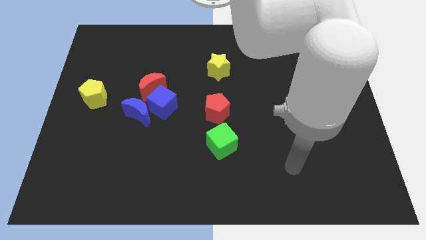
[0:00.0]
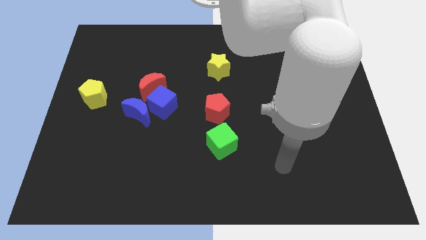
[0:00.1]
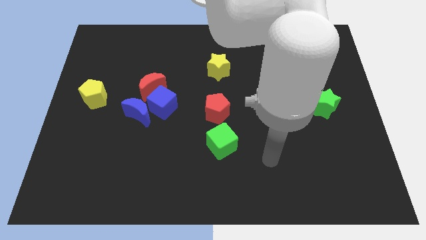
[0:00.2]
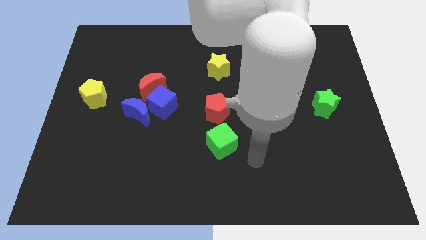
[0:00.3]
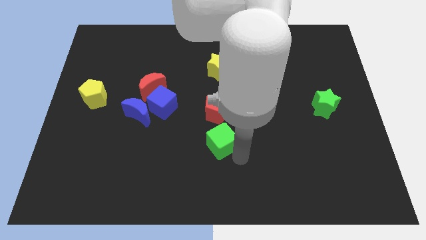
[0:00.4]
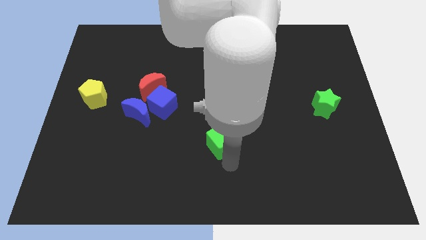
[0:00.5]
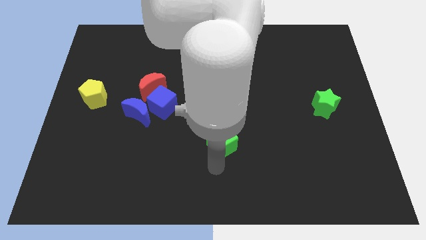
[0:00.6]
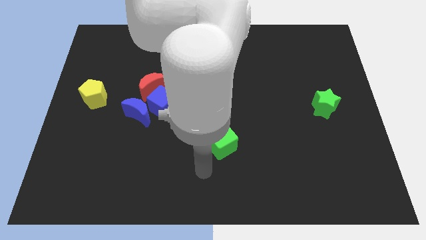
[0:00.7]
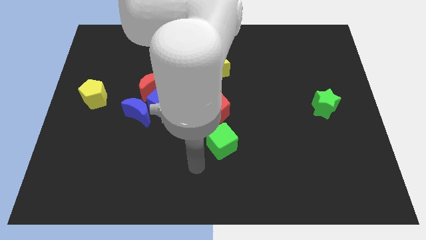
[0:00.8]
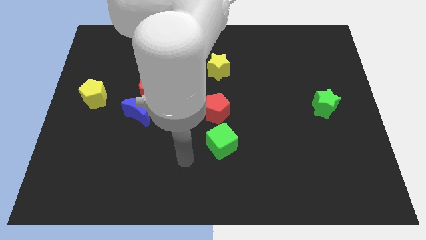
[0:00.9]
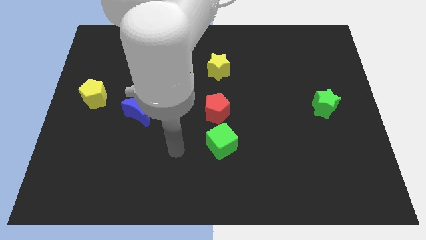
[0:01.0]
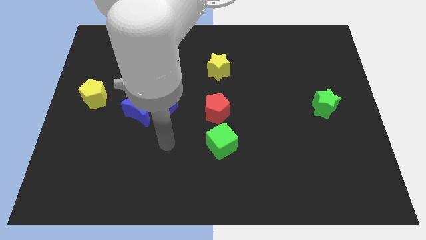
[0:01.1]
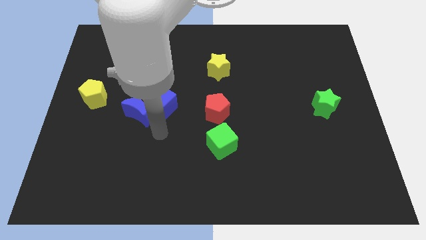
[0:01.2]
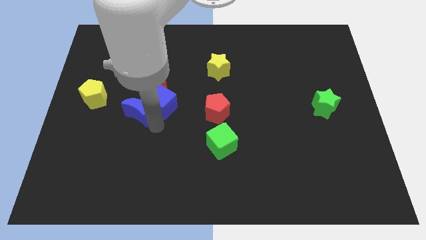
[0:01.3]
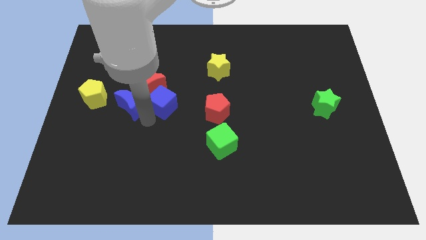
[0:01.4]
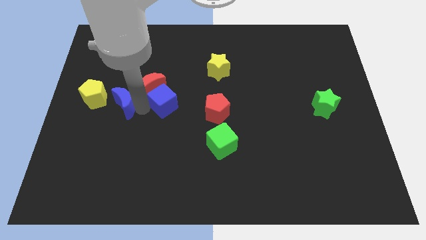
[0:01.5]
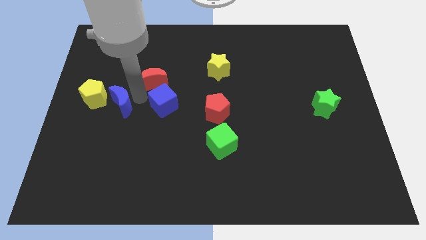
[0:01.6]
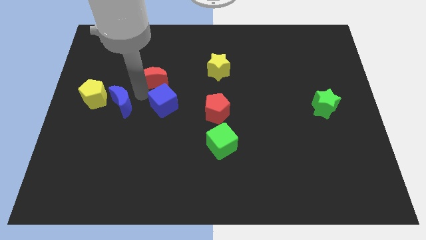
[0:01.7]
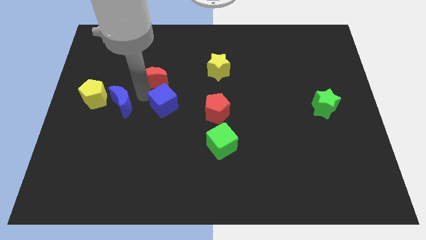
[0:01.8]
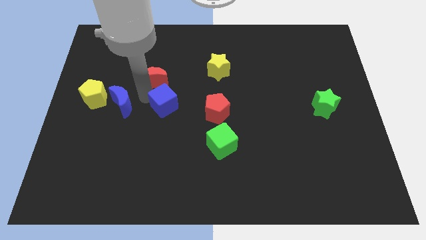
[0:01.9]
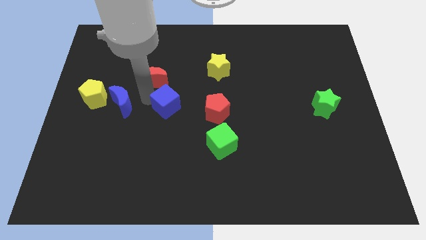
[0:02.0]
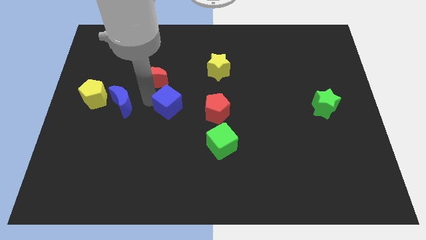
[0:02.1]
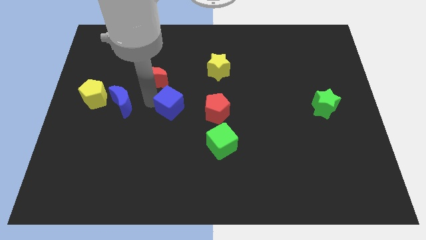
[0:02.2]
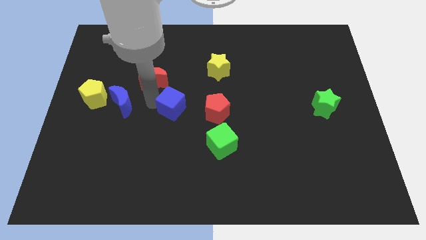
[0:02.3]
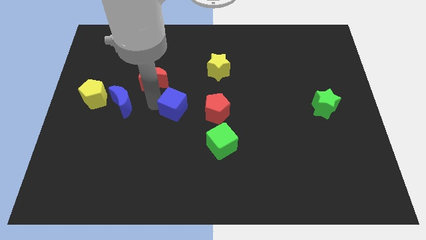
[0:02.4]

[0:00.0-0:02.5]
move the blue cube away from the blue moon and red moon

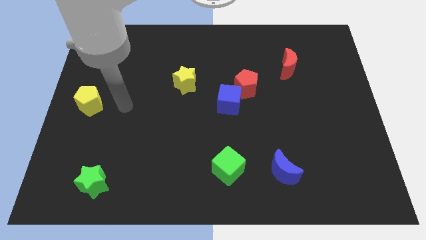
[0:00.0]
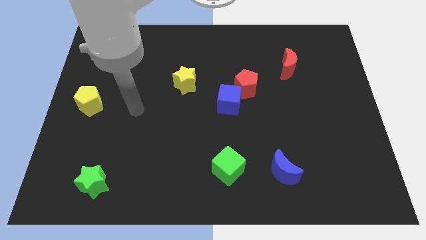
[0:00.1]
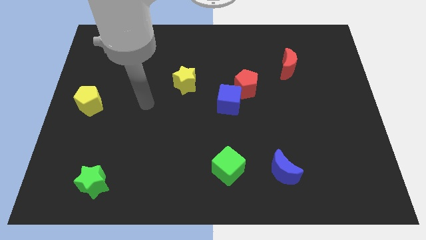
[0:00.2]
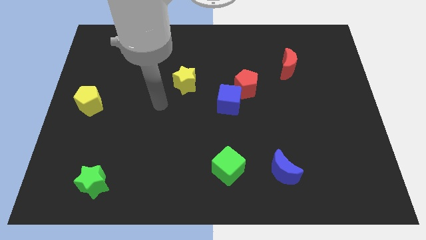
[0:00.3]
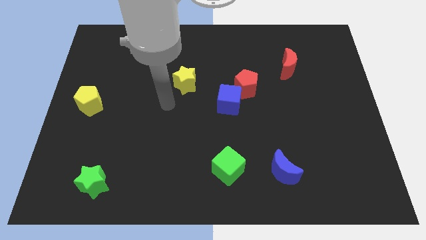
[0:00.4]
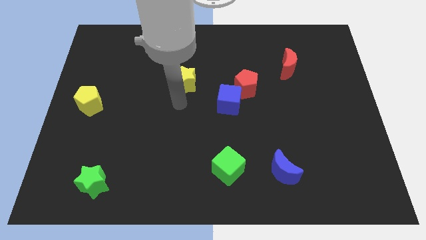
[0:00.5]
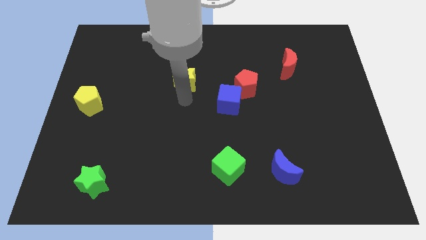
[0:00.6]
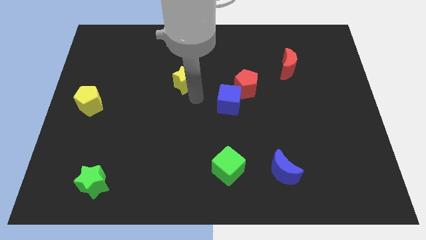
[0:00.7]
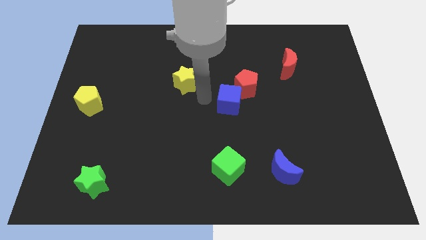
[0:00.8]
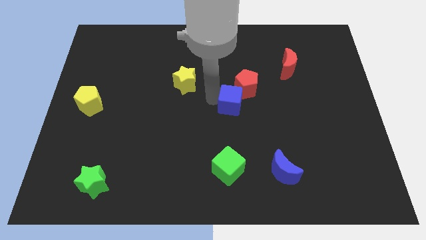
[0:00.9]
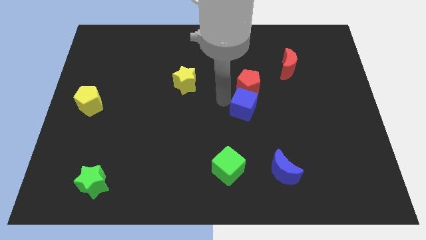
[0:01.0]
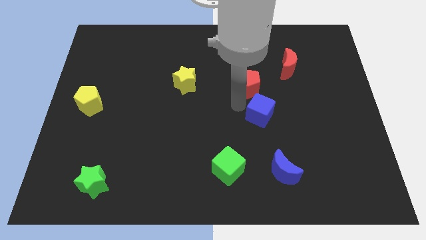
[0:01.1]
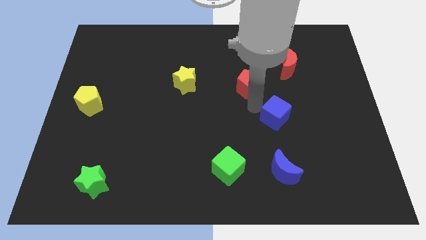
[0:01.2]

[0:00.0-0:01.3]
pull the red pentagon apart from the blue cube

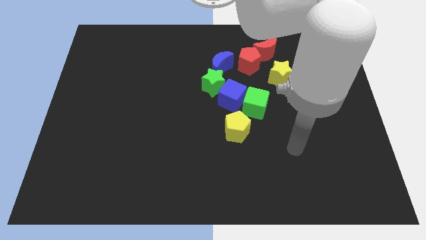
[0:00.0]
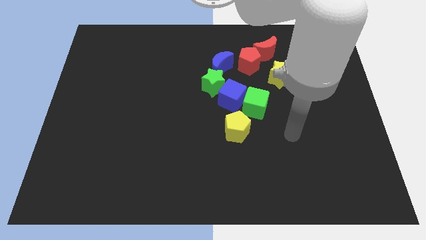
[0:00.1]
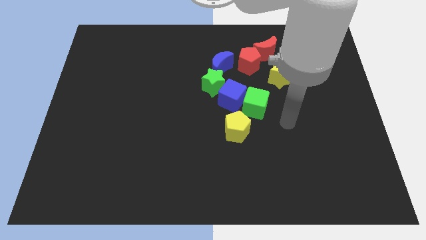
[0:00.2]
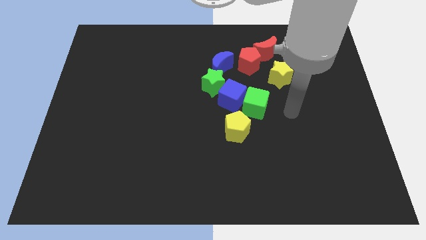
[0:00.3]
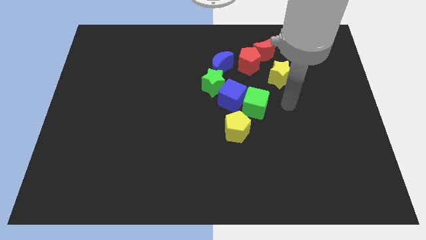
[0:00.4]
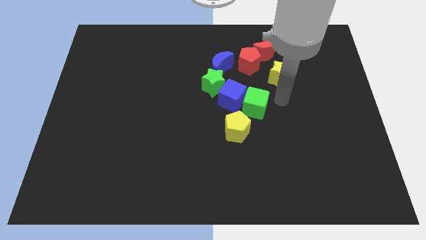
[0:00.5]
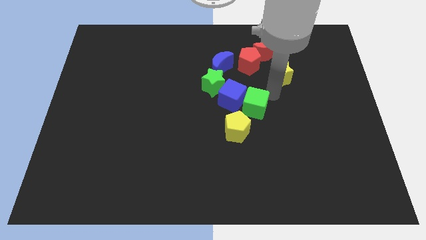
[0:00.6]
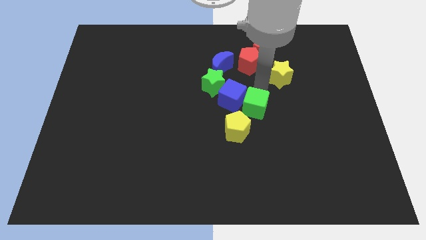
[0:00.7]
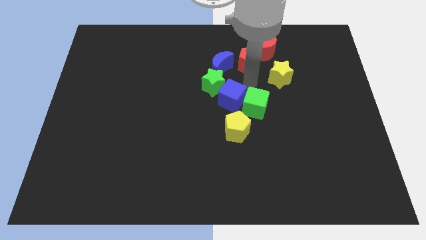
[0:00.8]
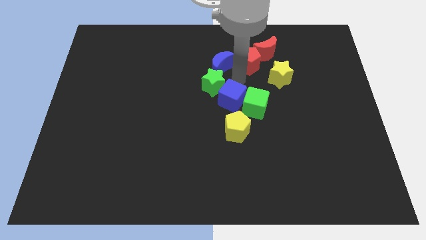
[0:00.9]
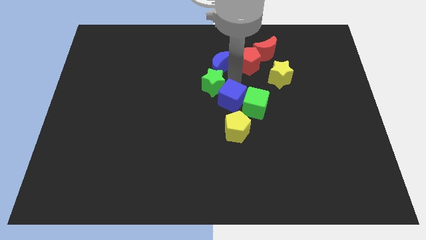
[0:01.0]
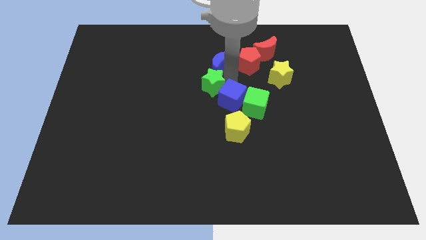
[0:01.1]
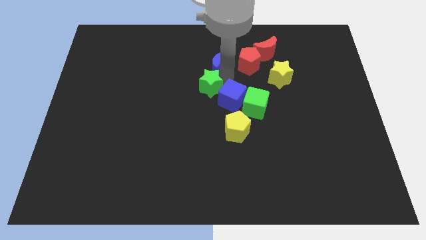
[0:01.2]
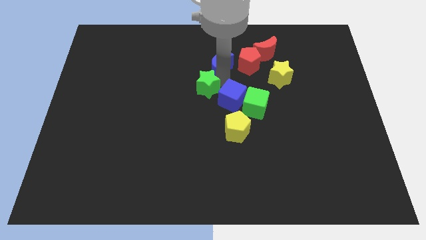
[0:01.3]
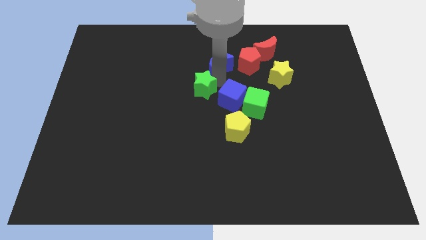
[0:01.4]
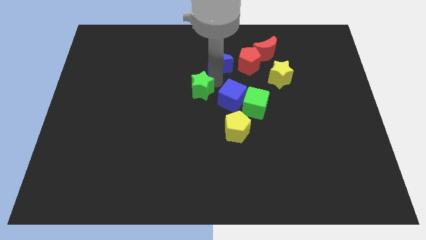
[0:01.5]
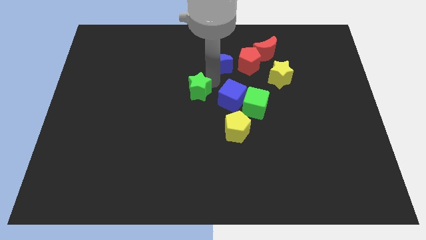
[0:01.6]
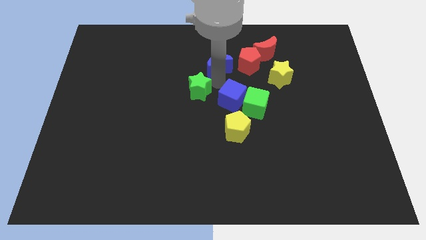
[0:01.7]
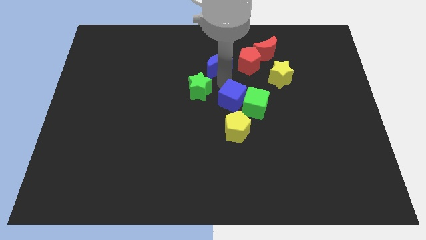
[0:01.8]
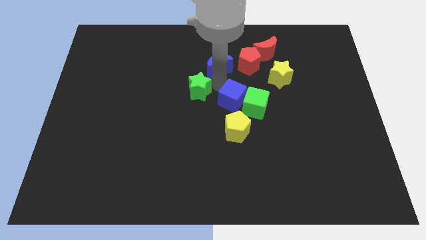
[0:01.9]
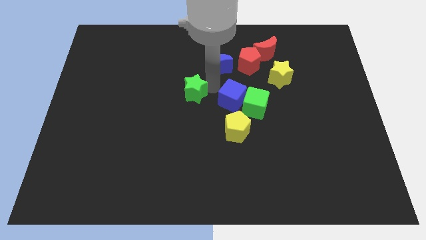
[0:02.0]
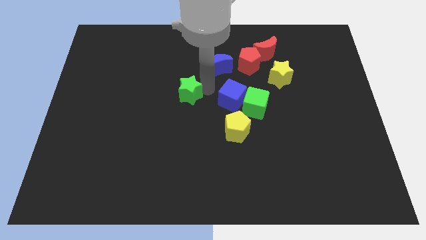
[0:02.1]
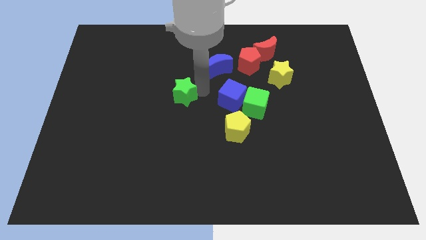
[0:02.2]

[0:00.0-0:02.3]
pull the green star apart from the blue cube and blue moon

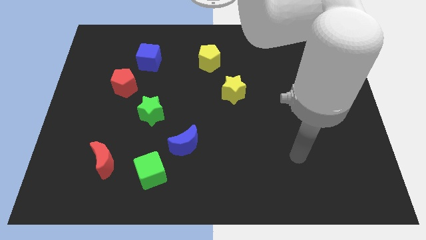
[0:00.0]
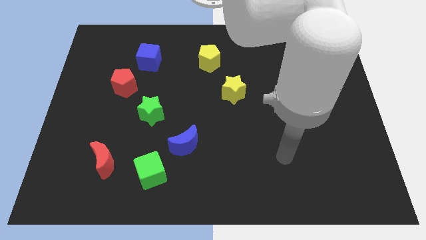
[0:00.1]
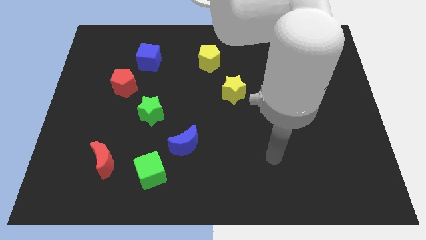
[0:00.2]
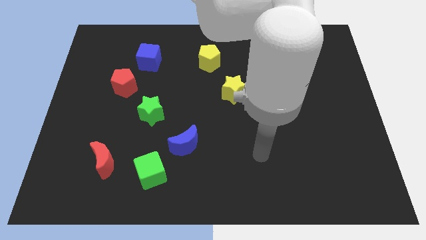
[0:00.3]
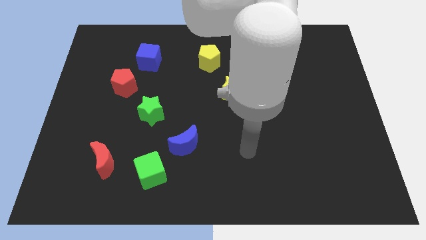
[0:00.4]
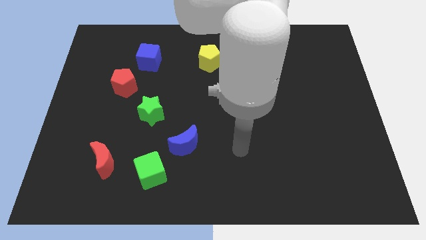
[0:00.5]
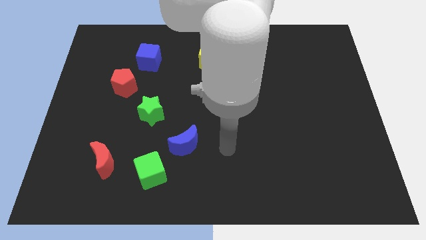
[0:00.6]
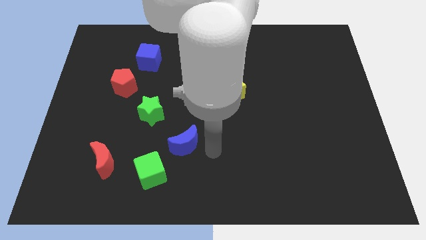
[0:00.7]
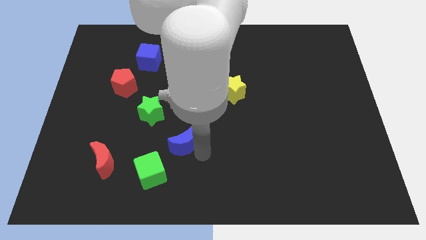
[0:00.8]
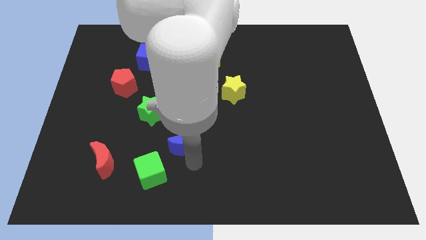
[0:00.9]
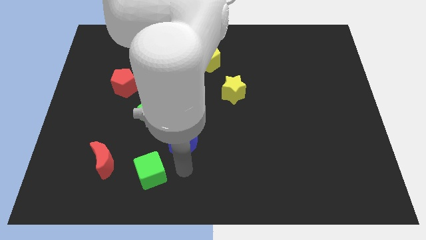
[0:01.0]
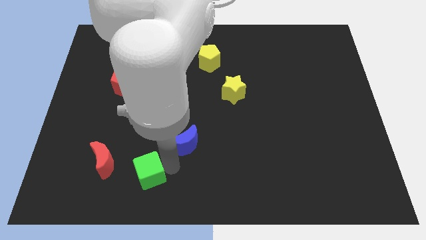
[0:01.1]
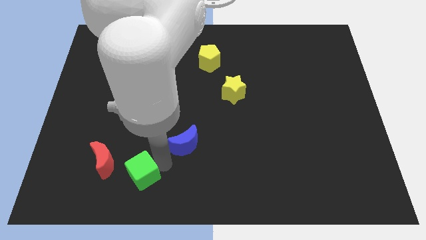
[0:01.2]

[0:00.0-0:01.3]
separate the blue moon from the green cube

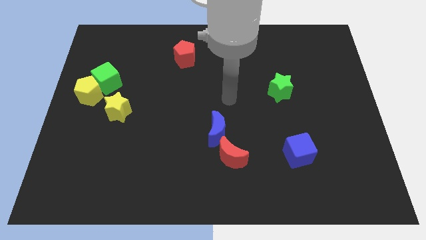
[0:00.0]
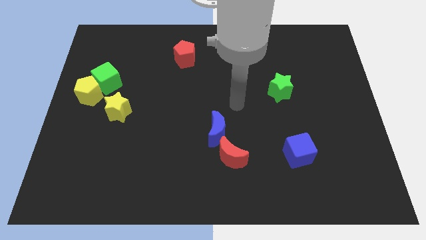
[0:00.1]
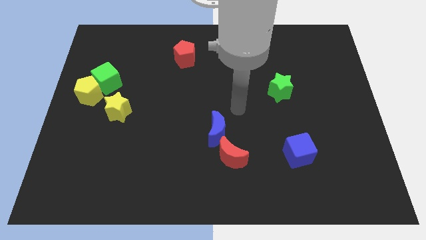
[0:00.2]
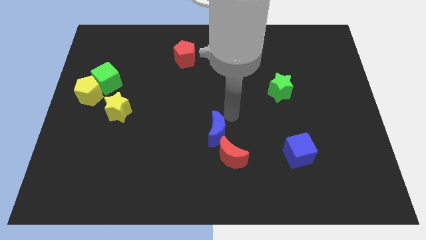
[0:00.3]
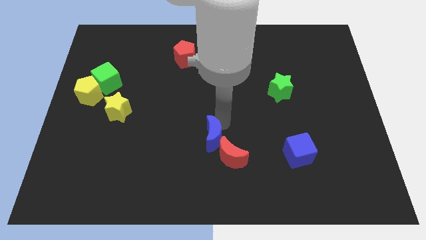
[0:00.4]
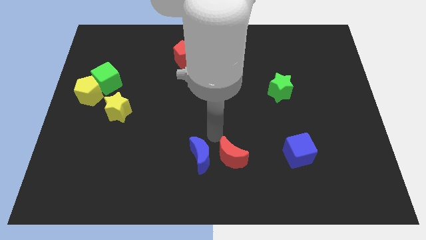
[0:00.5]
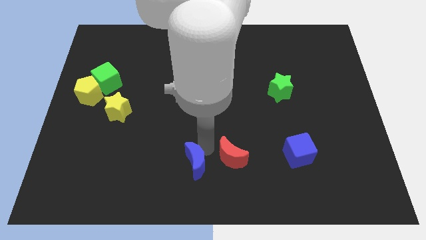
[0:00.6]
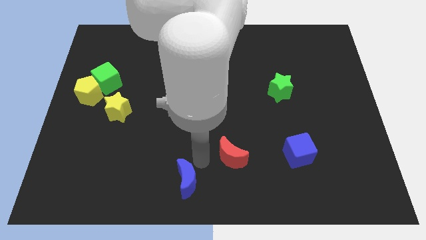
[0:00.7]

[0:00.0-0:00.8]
separate the red moon from the blue moon

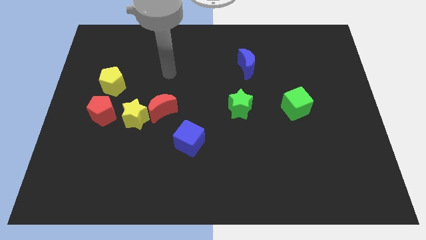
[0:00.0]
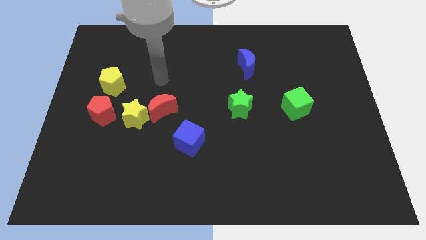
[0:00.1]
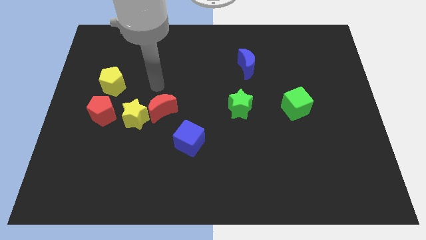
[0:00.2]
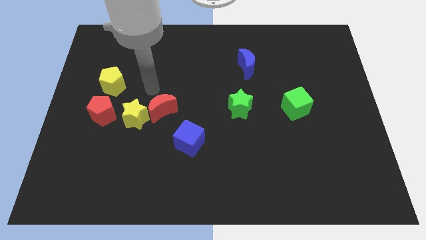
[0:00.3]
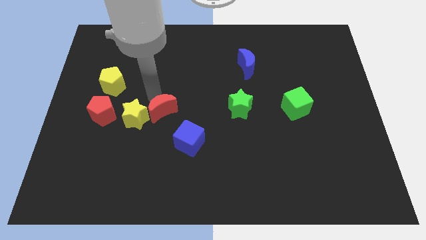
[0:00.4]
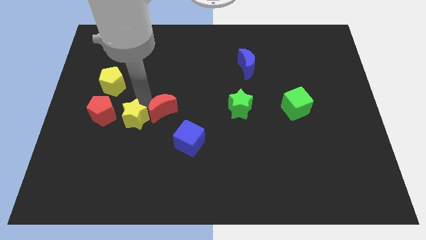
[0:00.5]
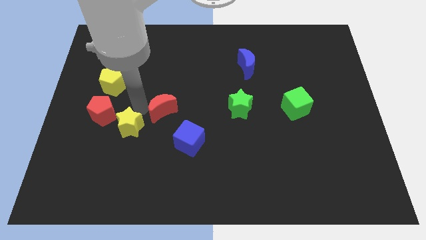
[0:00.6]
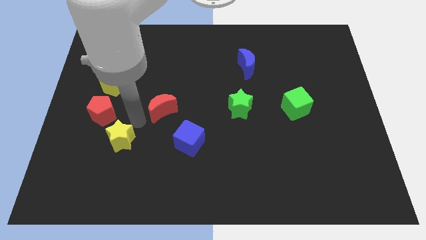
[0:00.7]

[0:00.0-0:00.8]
separate the red moon from the yellow star

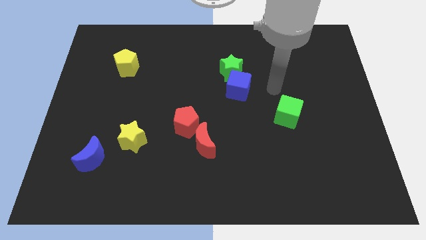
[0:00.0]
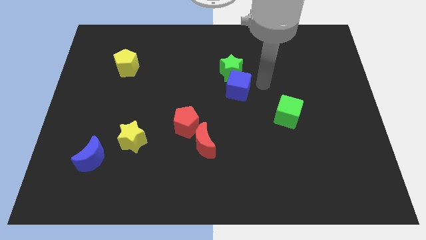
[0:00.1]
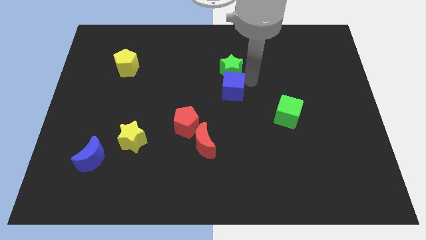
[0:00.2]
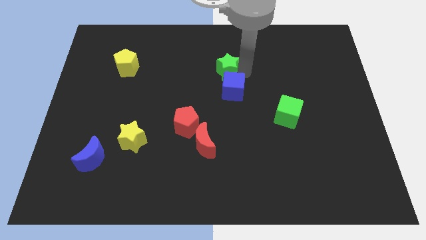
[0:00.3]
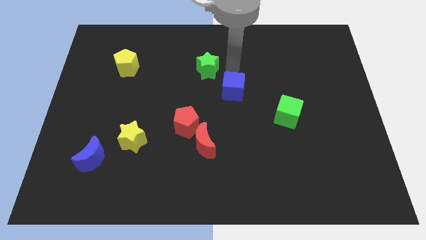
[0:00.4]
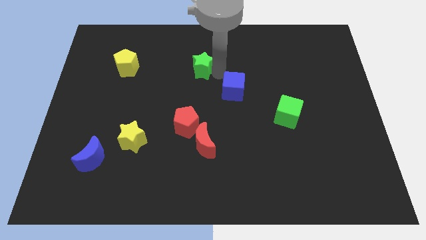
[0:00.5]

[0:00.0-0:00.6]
pull the blue cube apart from the green star
